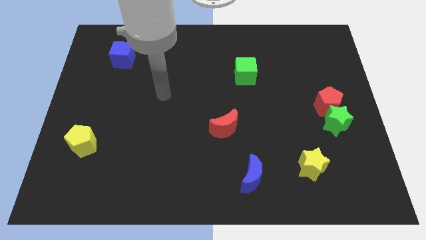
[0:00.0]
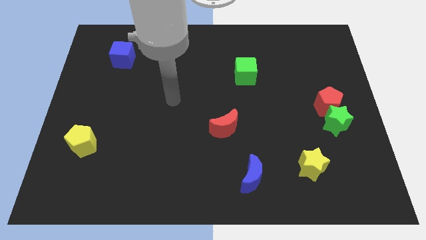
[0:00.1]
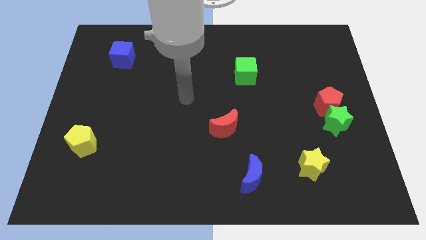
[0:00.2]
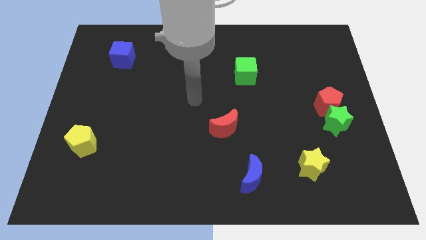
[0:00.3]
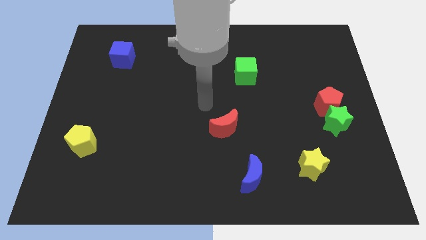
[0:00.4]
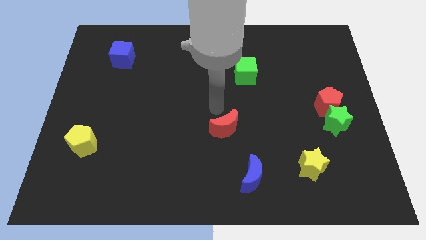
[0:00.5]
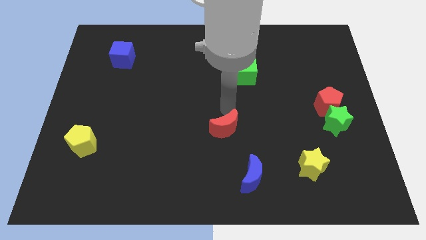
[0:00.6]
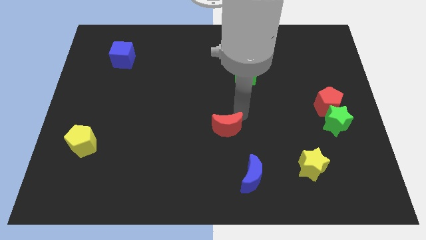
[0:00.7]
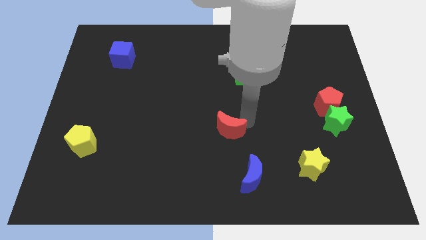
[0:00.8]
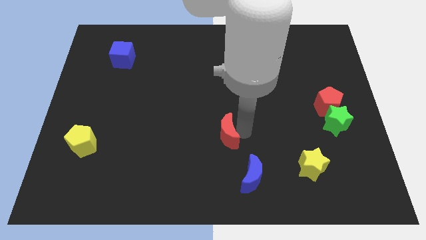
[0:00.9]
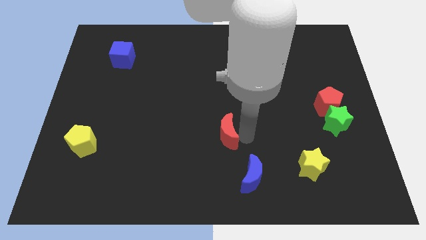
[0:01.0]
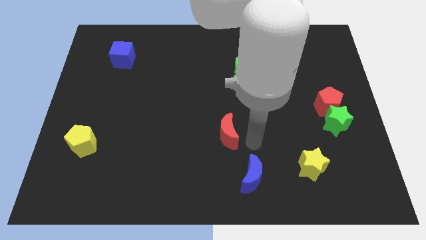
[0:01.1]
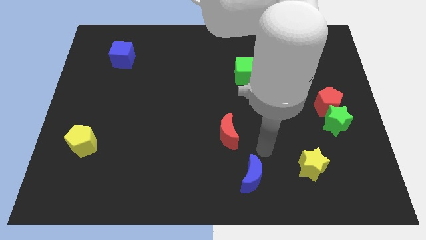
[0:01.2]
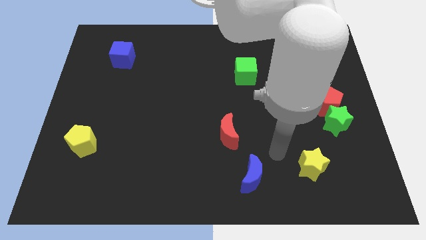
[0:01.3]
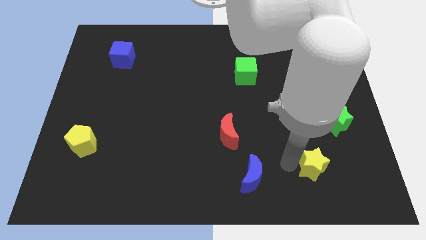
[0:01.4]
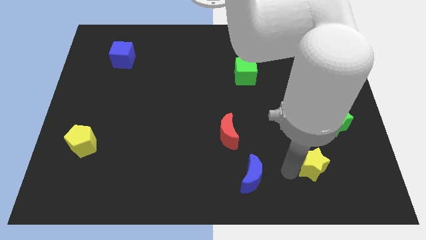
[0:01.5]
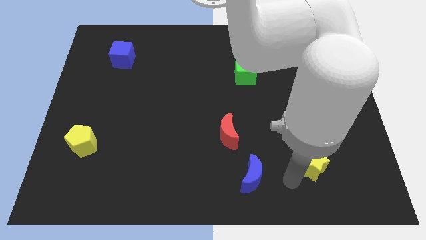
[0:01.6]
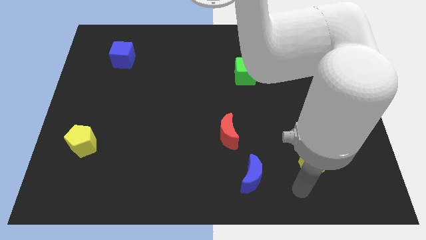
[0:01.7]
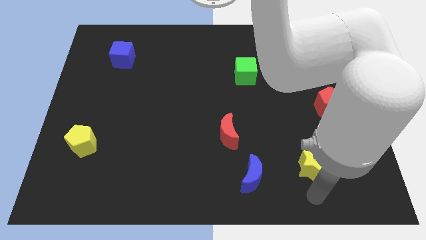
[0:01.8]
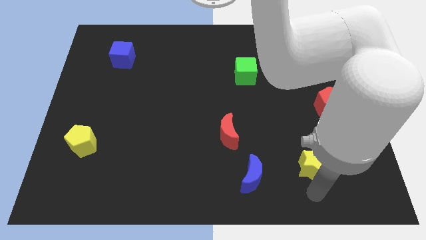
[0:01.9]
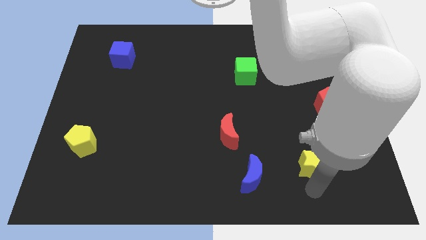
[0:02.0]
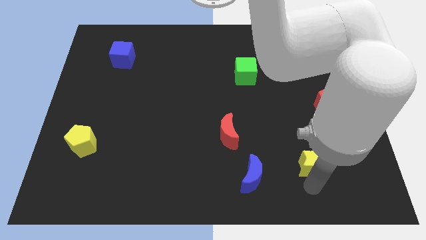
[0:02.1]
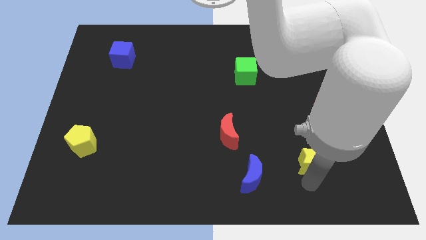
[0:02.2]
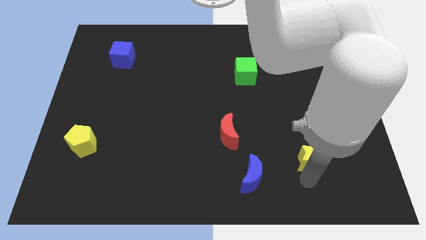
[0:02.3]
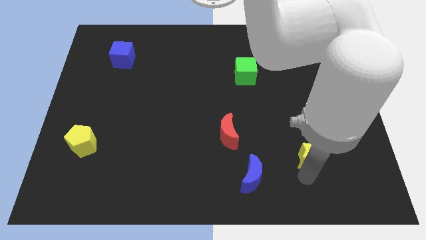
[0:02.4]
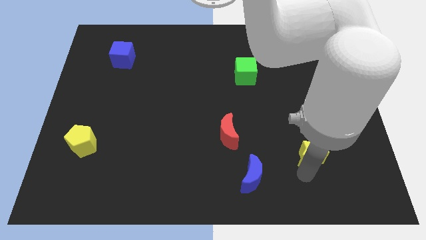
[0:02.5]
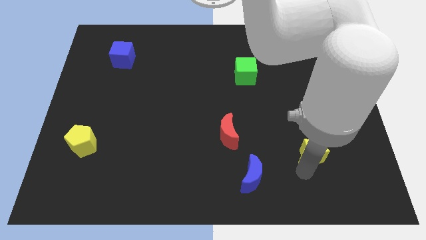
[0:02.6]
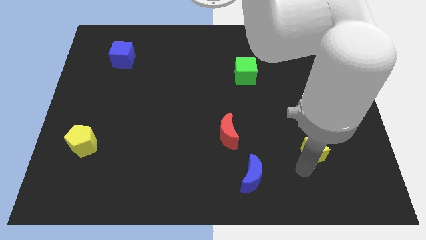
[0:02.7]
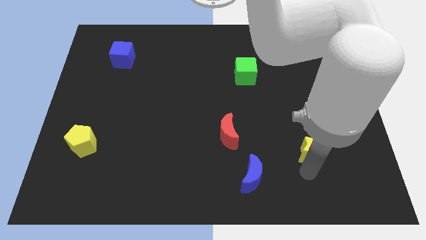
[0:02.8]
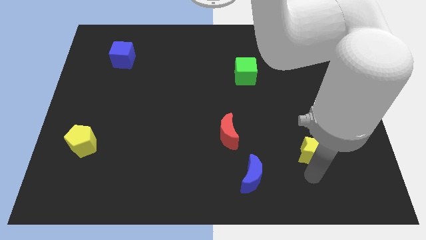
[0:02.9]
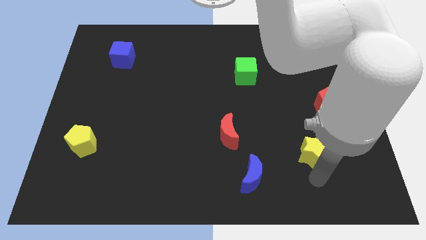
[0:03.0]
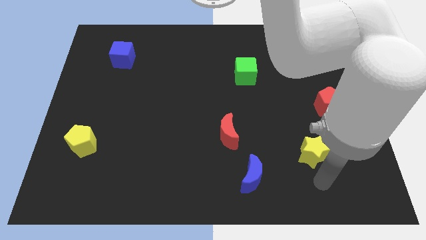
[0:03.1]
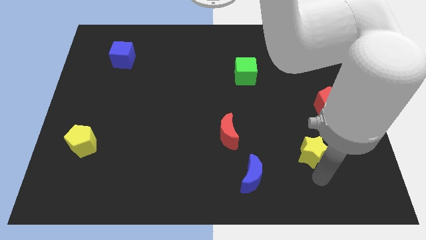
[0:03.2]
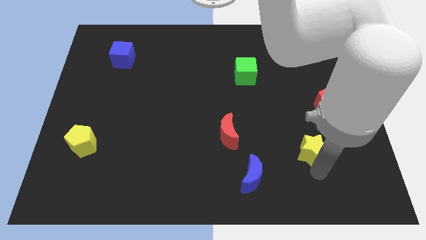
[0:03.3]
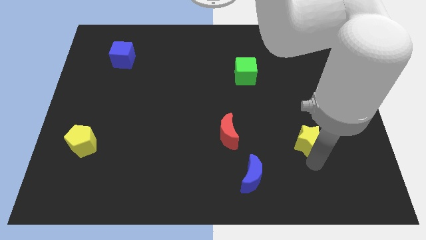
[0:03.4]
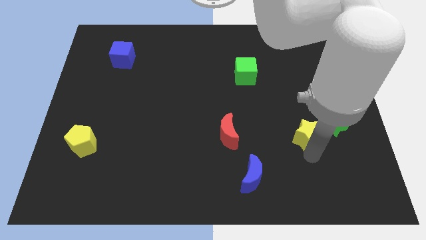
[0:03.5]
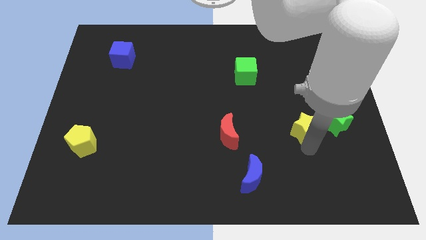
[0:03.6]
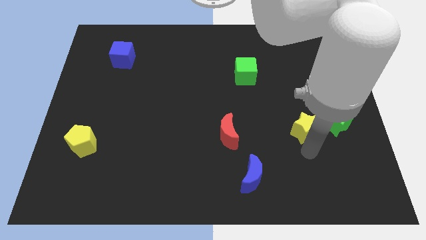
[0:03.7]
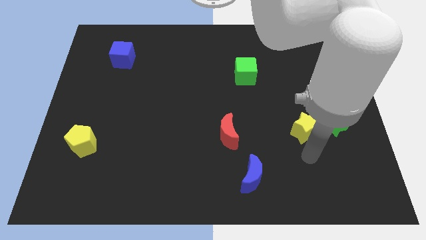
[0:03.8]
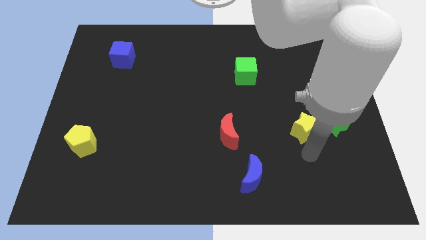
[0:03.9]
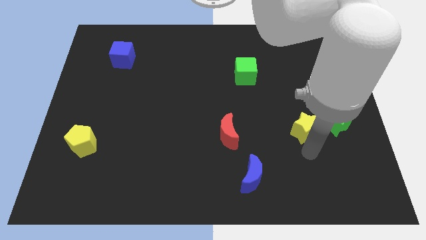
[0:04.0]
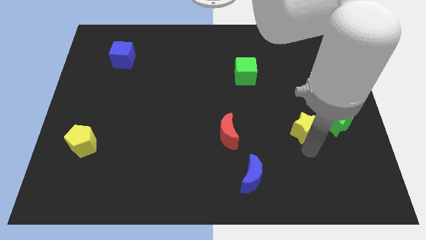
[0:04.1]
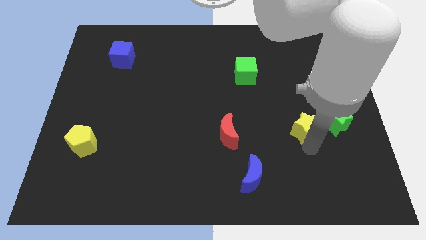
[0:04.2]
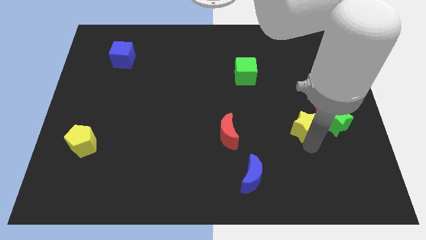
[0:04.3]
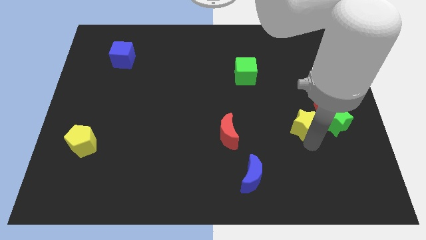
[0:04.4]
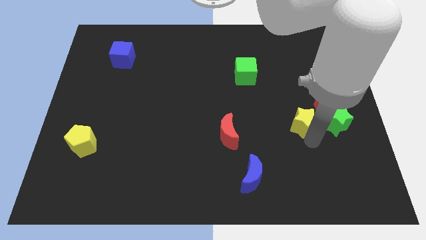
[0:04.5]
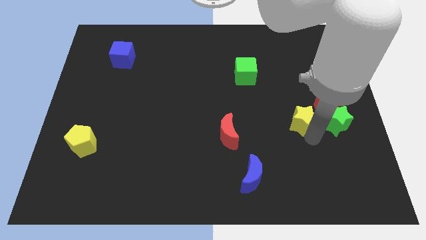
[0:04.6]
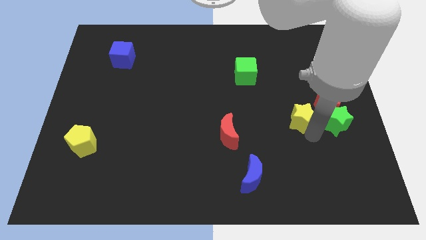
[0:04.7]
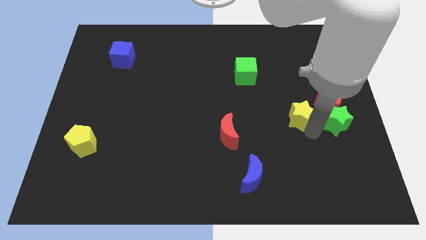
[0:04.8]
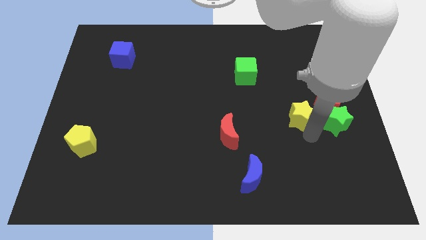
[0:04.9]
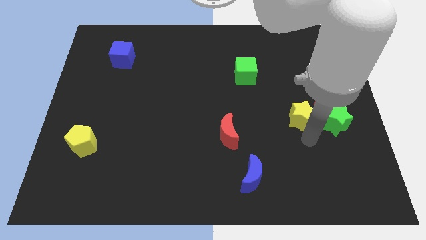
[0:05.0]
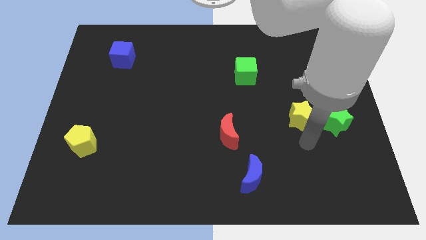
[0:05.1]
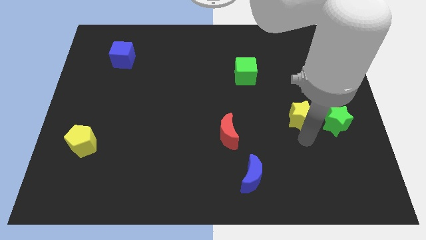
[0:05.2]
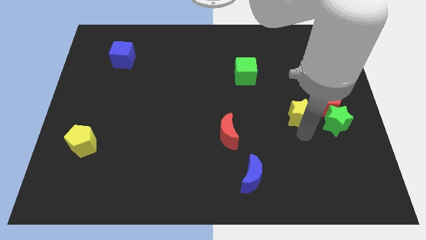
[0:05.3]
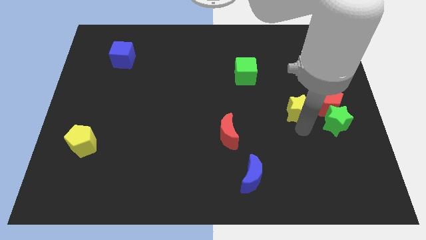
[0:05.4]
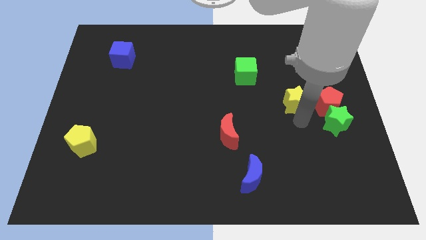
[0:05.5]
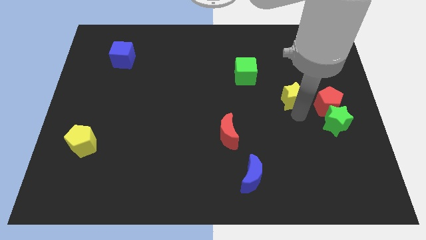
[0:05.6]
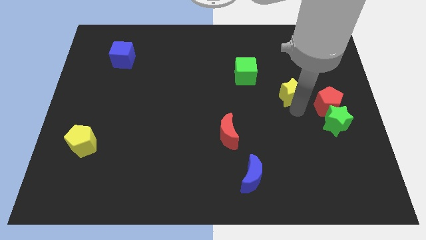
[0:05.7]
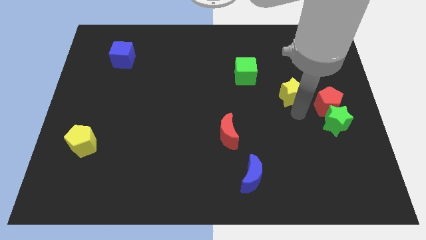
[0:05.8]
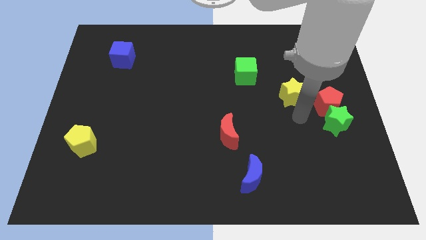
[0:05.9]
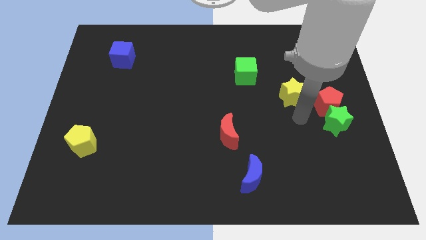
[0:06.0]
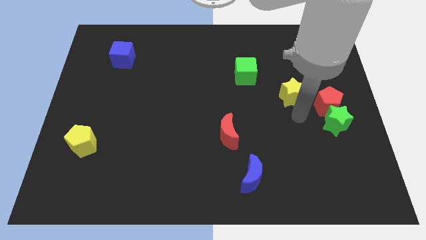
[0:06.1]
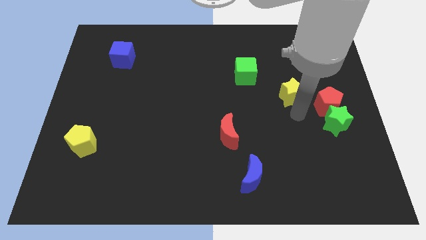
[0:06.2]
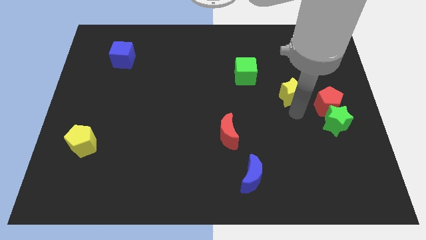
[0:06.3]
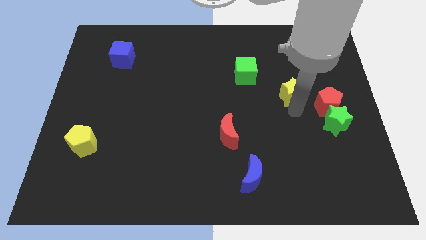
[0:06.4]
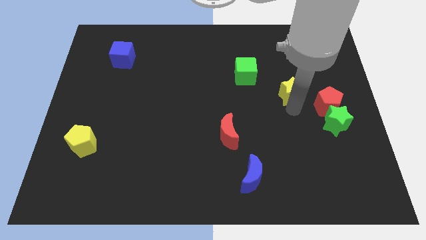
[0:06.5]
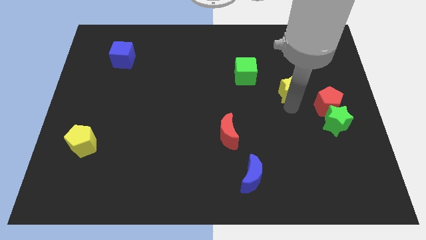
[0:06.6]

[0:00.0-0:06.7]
move the yellow star up

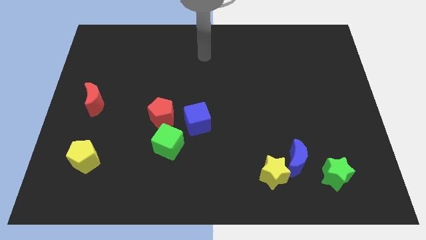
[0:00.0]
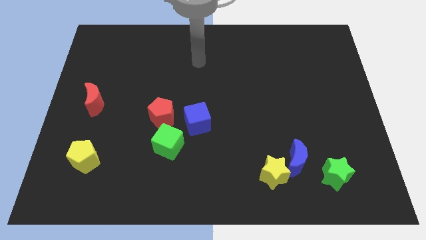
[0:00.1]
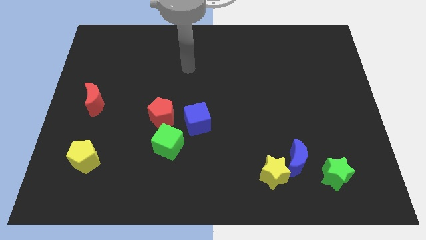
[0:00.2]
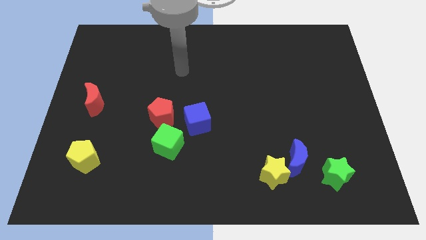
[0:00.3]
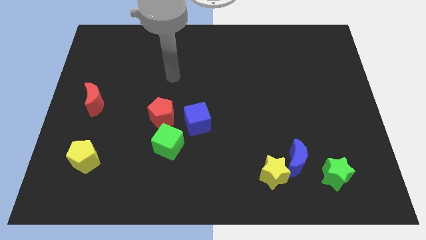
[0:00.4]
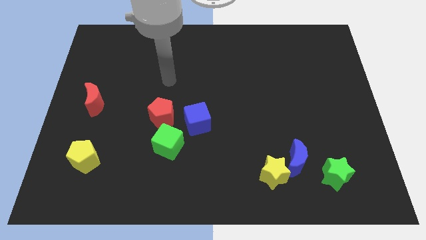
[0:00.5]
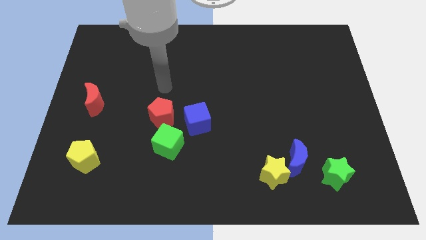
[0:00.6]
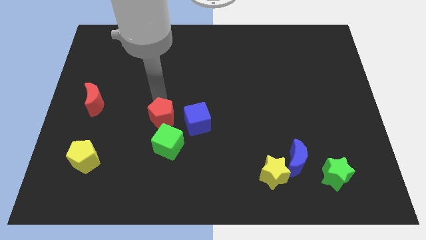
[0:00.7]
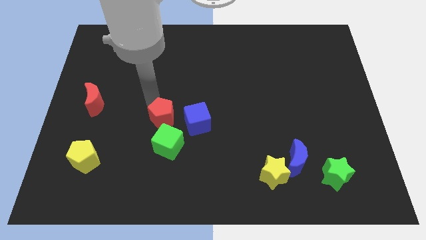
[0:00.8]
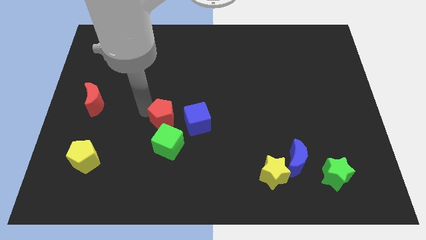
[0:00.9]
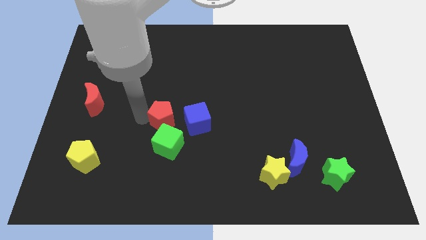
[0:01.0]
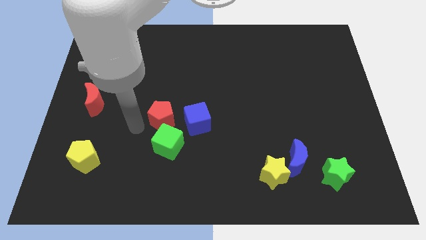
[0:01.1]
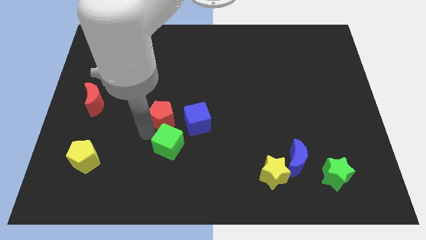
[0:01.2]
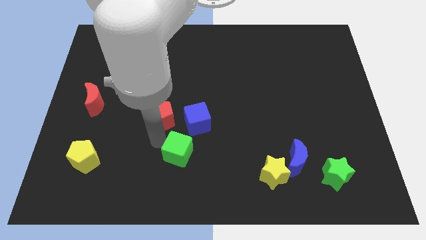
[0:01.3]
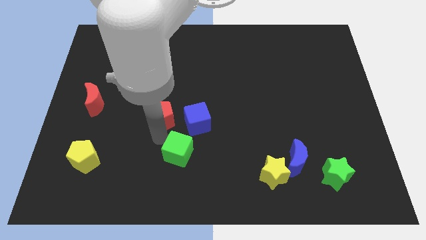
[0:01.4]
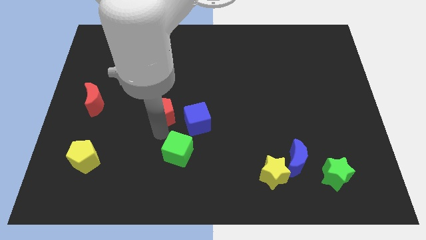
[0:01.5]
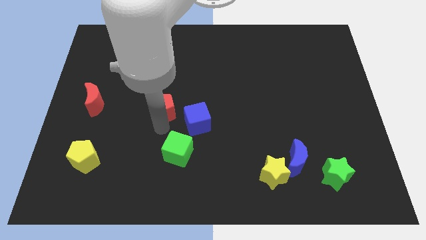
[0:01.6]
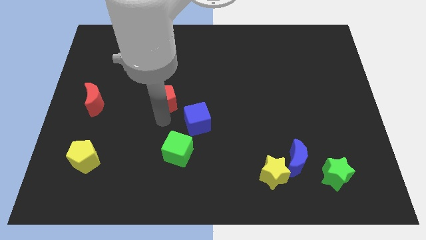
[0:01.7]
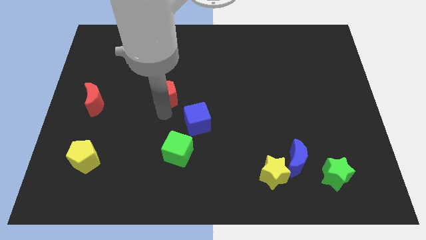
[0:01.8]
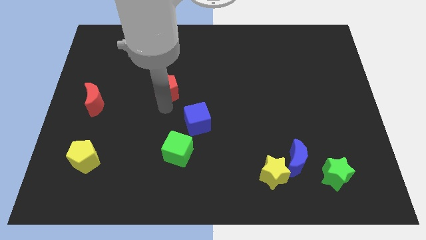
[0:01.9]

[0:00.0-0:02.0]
slide the red pentagon slightly upwards
